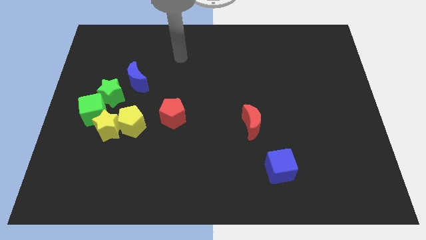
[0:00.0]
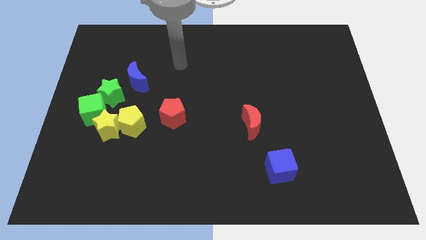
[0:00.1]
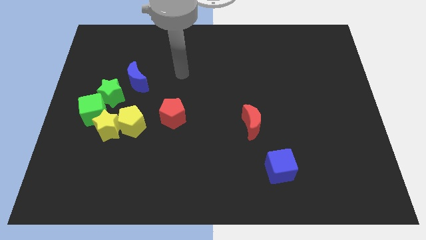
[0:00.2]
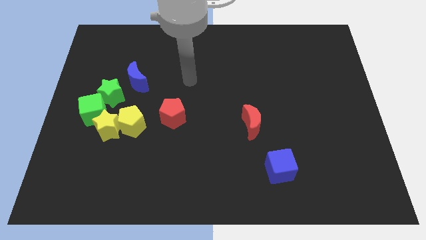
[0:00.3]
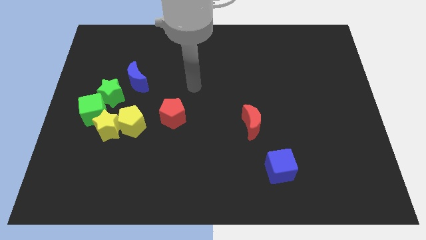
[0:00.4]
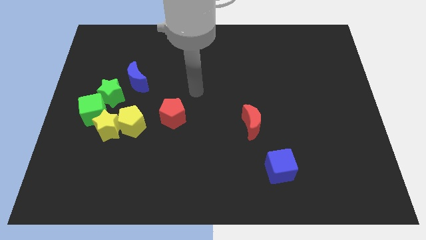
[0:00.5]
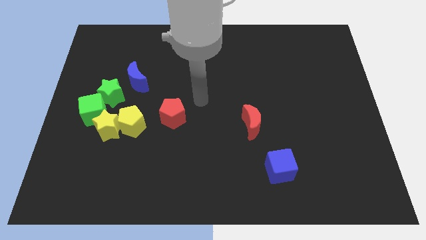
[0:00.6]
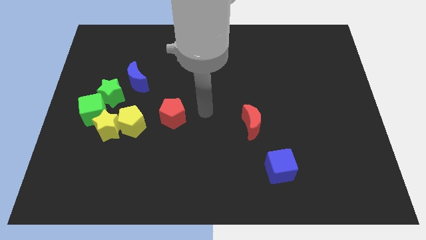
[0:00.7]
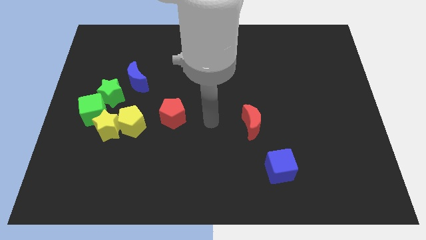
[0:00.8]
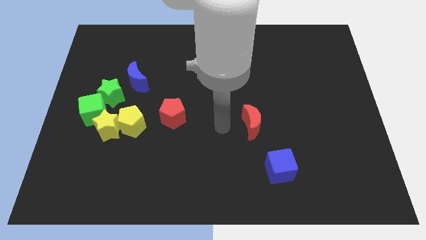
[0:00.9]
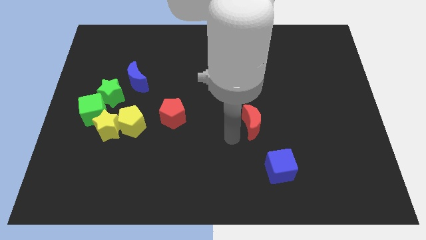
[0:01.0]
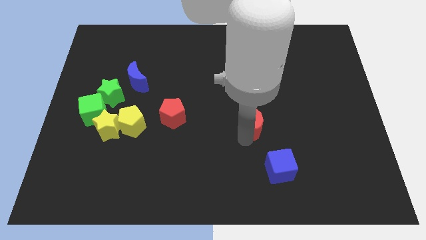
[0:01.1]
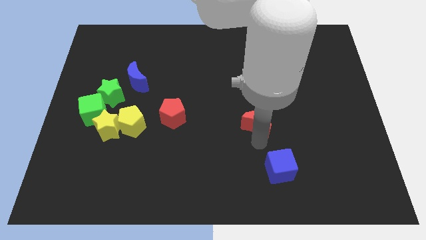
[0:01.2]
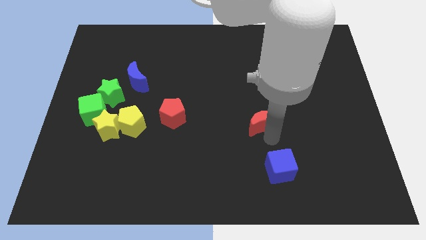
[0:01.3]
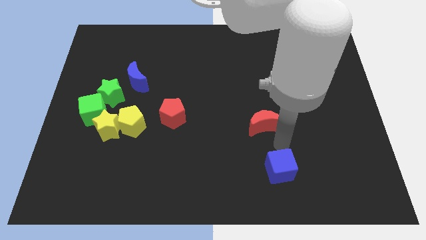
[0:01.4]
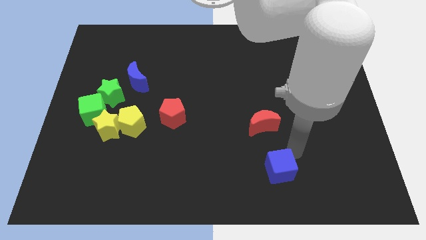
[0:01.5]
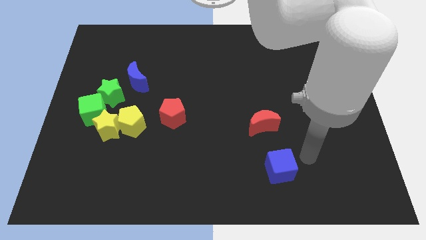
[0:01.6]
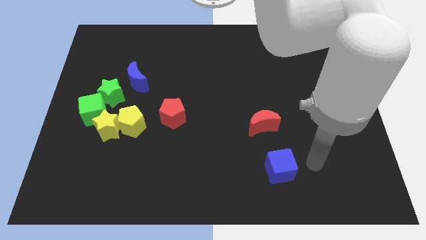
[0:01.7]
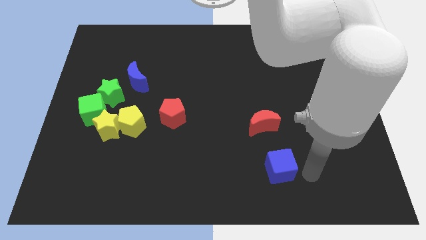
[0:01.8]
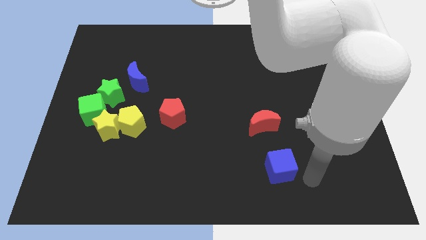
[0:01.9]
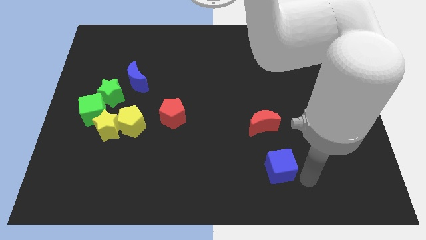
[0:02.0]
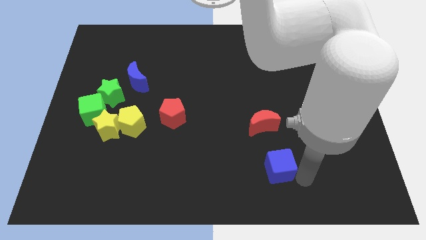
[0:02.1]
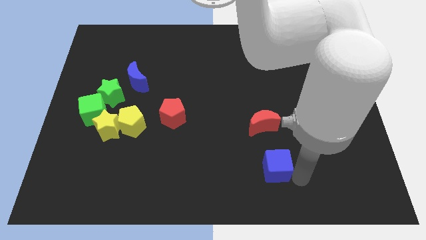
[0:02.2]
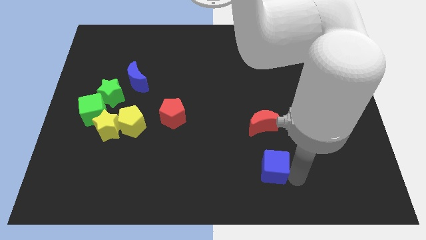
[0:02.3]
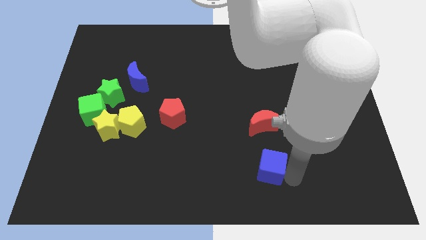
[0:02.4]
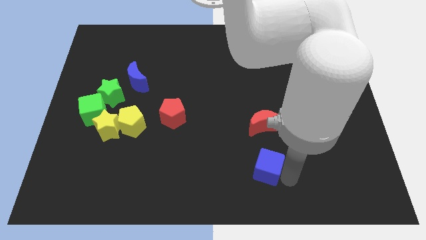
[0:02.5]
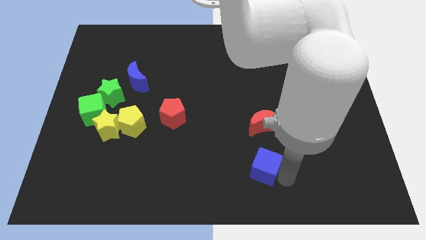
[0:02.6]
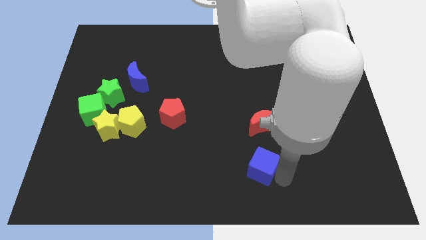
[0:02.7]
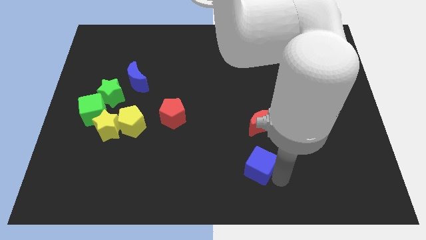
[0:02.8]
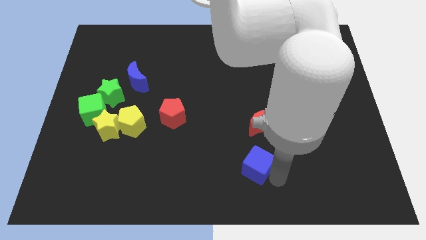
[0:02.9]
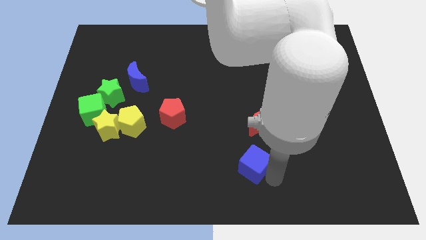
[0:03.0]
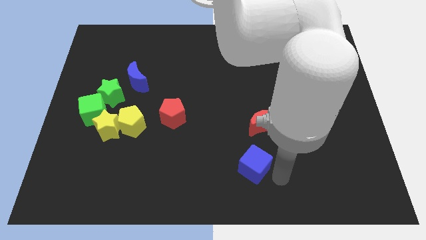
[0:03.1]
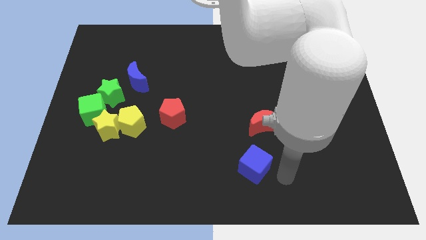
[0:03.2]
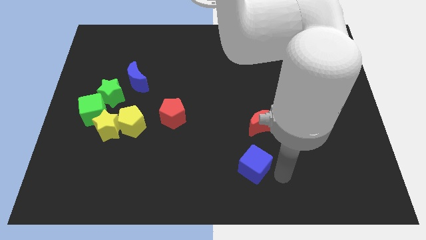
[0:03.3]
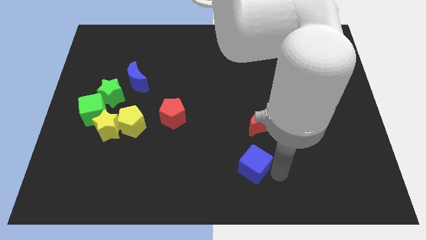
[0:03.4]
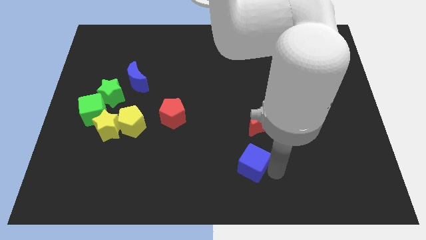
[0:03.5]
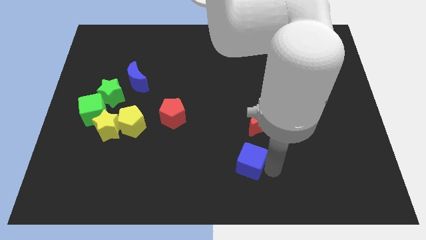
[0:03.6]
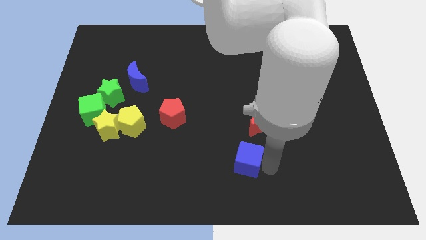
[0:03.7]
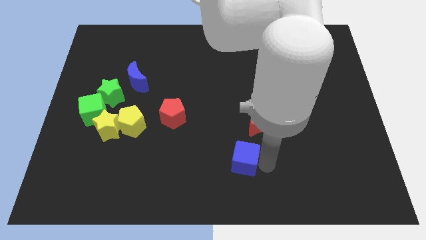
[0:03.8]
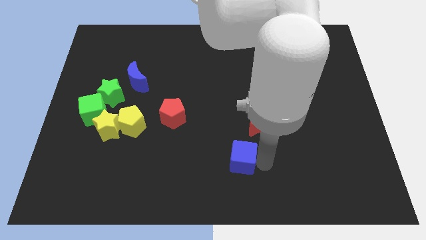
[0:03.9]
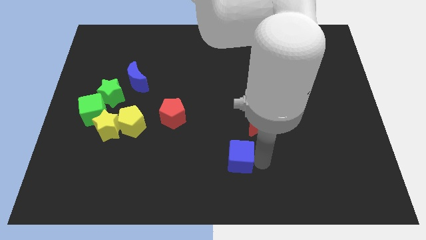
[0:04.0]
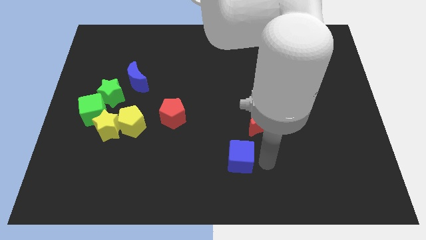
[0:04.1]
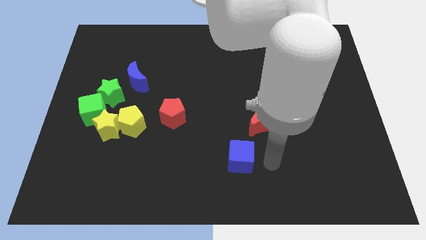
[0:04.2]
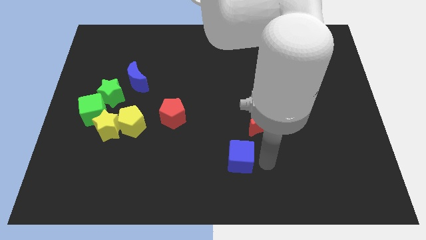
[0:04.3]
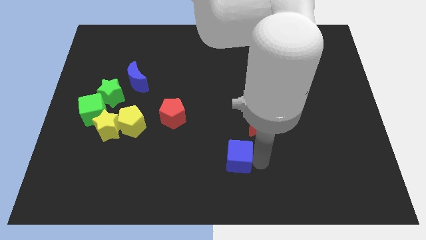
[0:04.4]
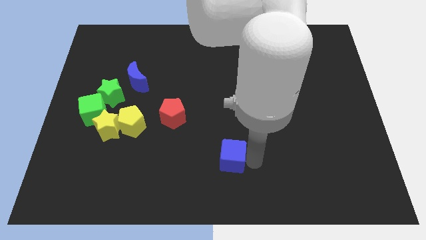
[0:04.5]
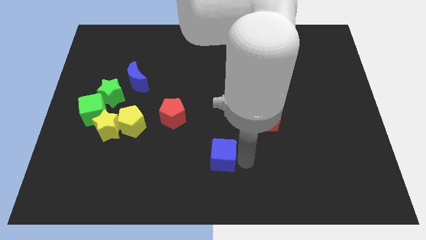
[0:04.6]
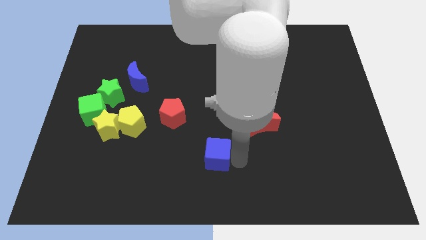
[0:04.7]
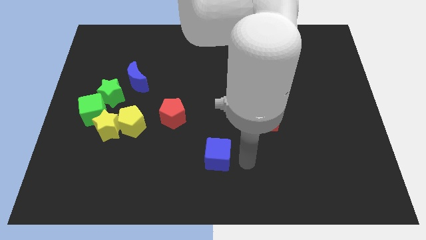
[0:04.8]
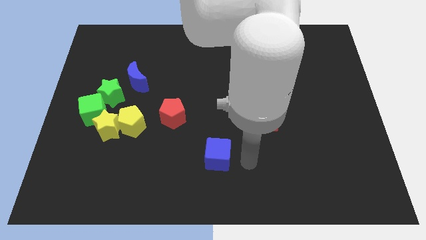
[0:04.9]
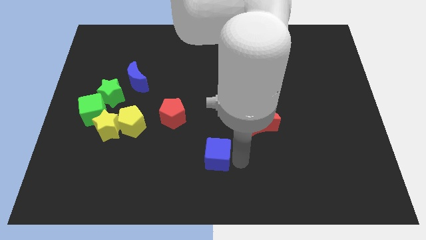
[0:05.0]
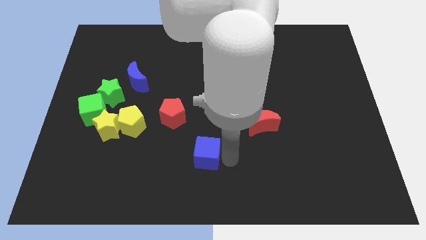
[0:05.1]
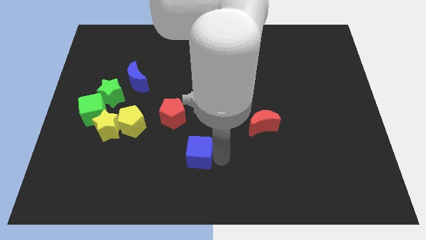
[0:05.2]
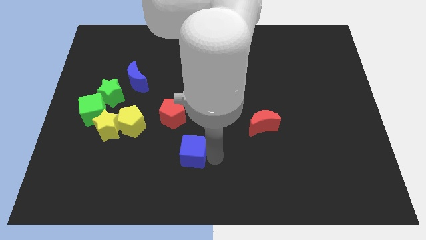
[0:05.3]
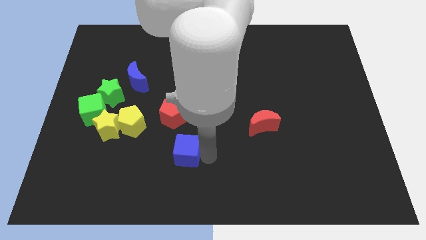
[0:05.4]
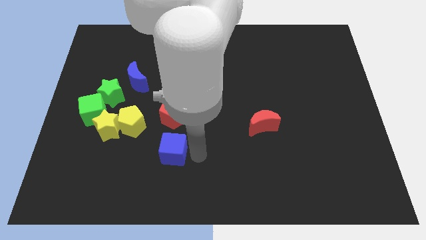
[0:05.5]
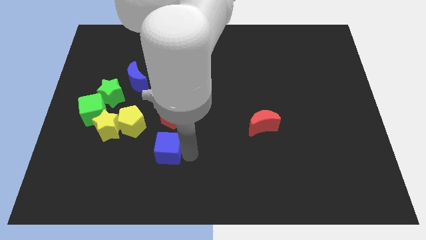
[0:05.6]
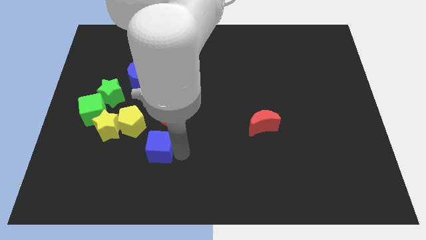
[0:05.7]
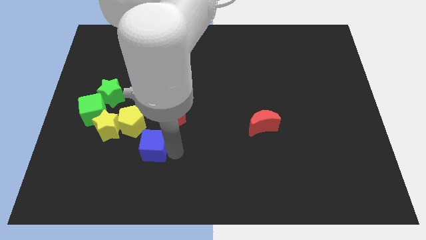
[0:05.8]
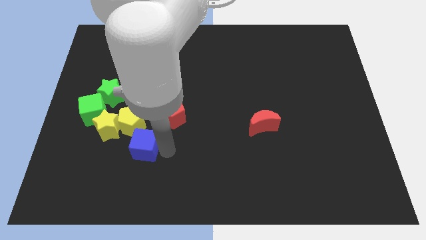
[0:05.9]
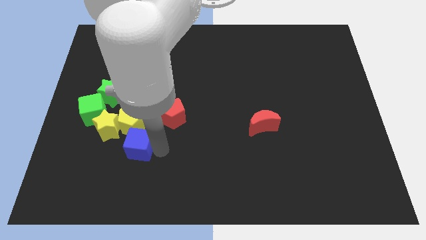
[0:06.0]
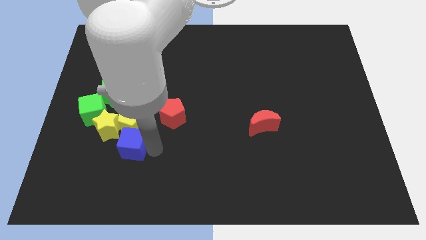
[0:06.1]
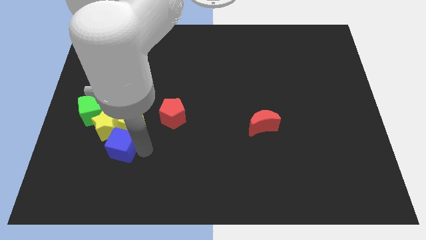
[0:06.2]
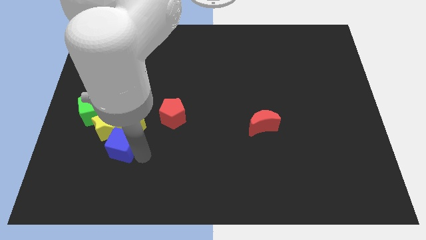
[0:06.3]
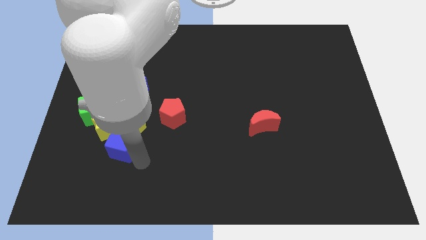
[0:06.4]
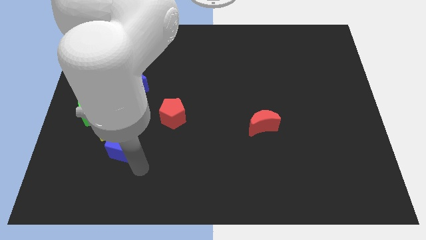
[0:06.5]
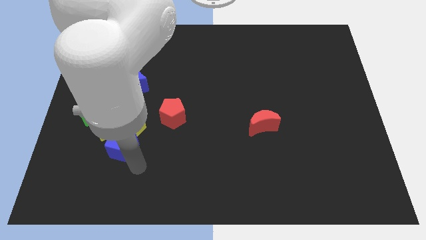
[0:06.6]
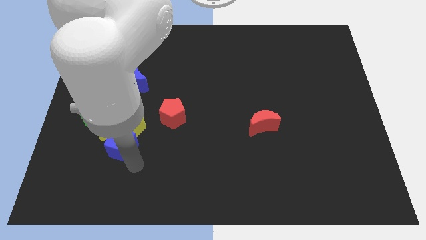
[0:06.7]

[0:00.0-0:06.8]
slide the blue cube to the yellow star
